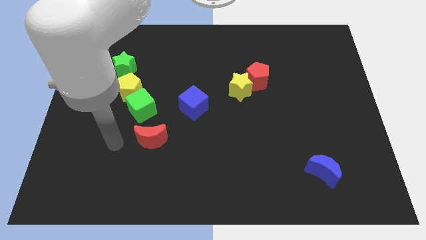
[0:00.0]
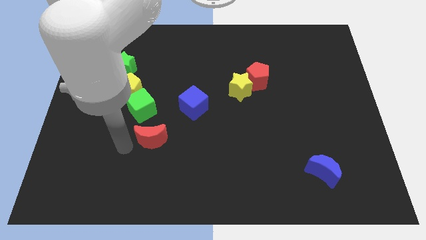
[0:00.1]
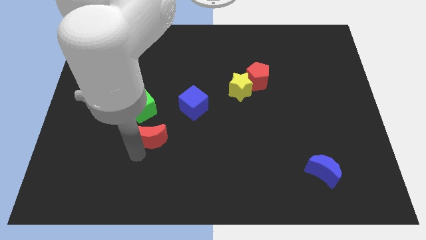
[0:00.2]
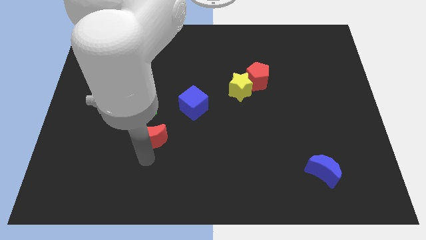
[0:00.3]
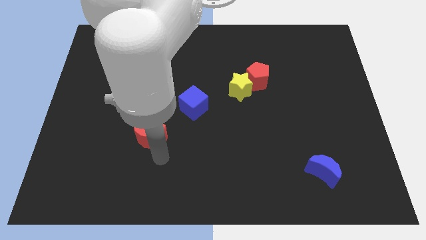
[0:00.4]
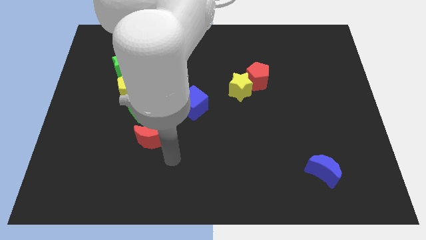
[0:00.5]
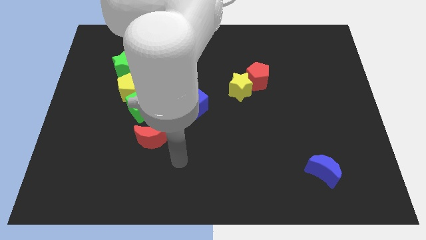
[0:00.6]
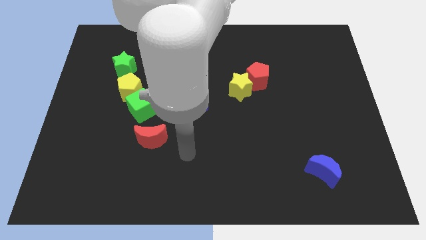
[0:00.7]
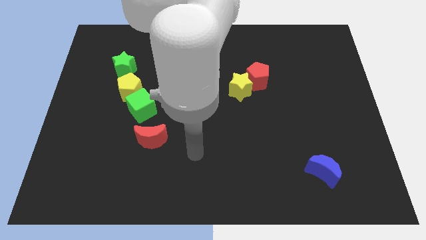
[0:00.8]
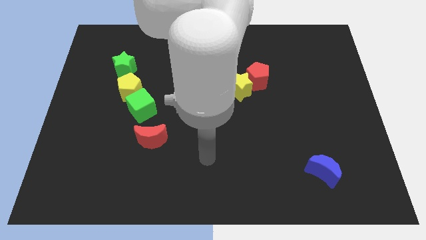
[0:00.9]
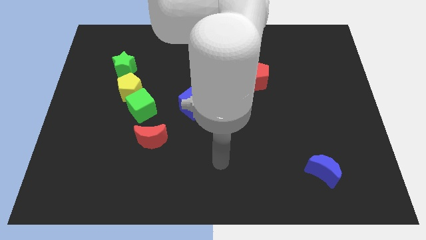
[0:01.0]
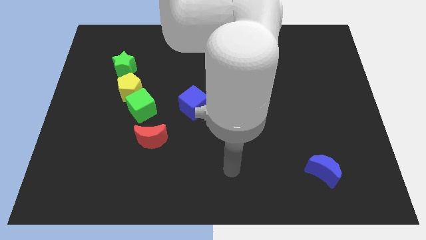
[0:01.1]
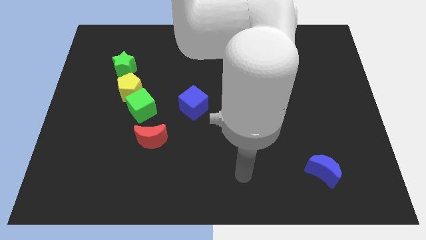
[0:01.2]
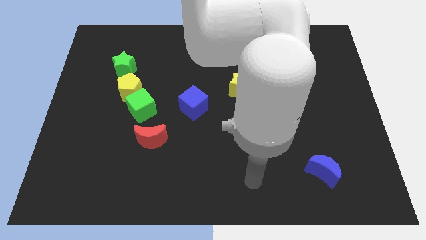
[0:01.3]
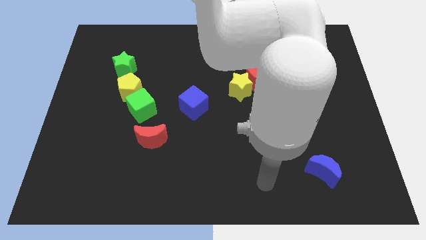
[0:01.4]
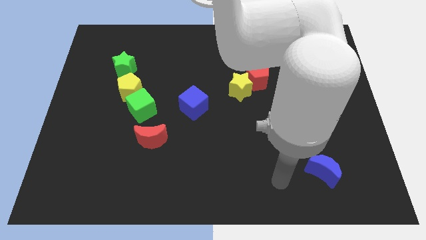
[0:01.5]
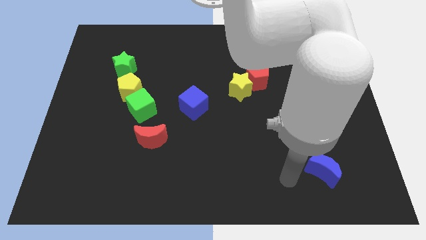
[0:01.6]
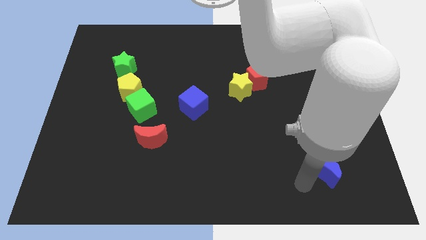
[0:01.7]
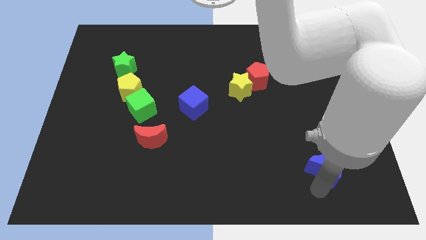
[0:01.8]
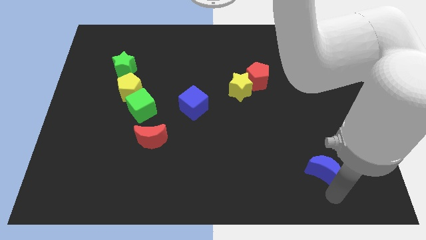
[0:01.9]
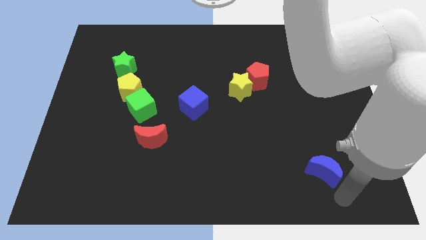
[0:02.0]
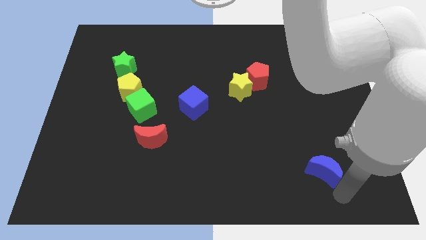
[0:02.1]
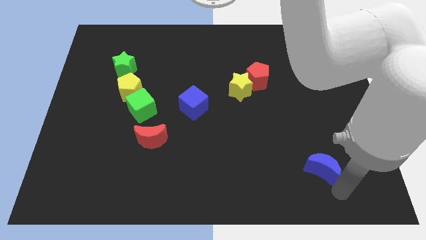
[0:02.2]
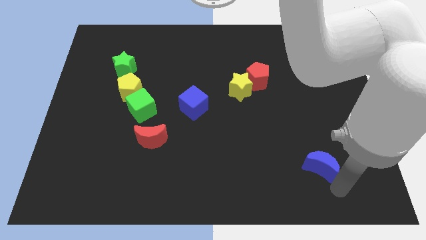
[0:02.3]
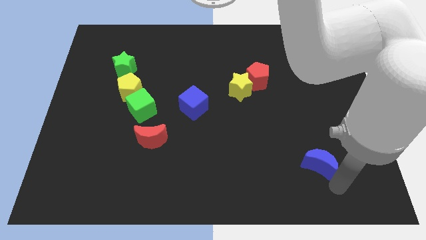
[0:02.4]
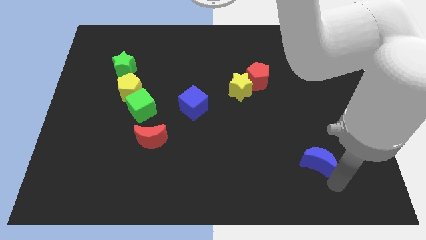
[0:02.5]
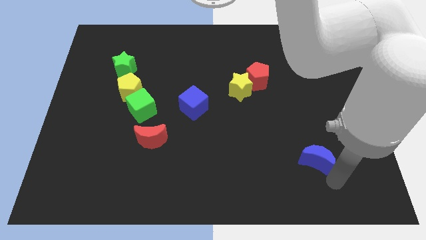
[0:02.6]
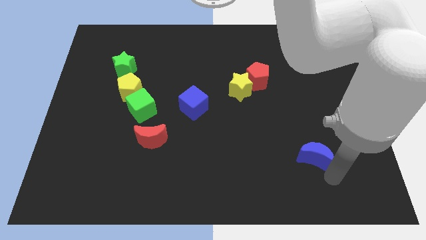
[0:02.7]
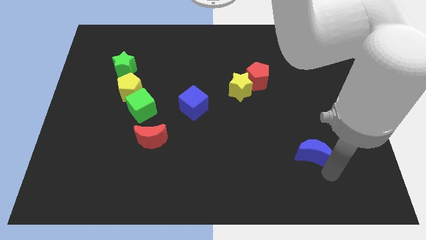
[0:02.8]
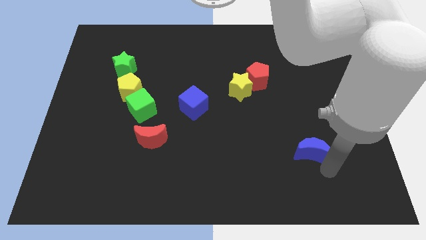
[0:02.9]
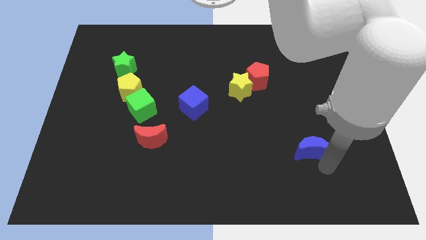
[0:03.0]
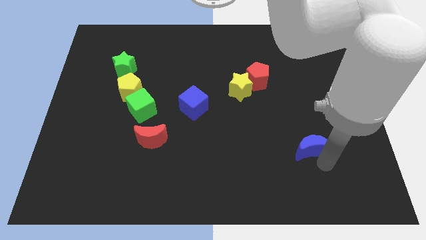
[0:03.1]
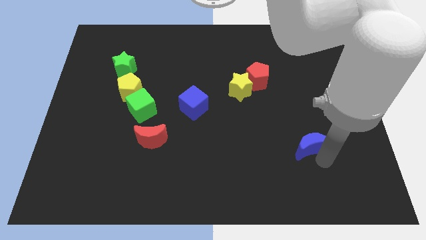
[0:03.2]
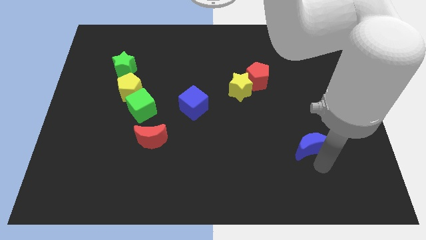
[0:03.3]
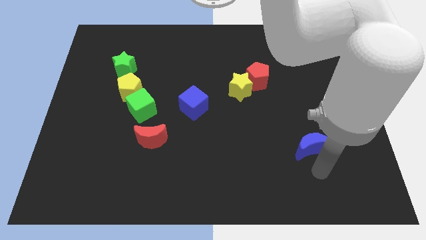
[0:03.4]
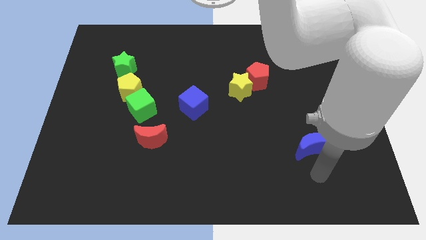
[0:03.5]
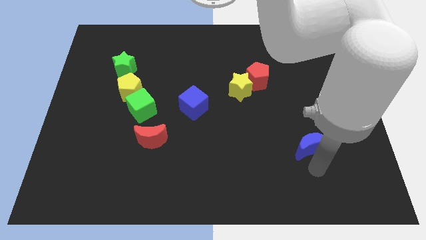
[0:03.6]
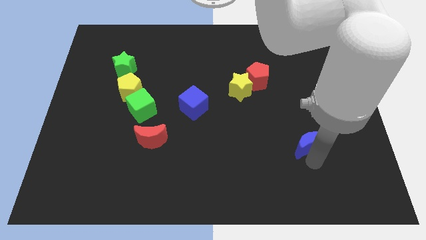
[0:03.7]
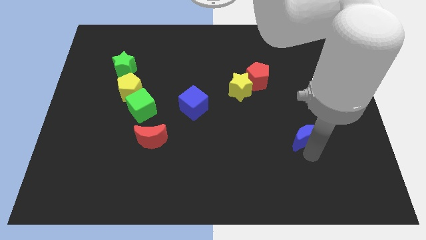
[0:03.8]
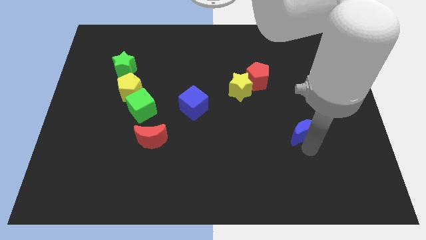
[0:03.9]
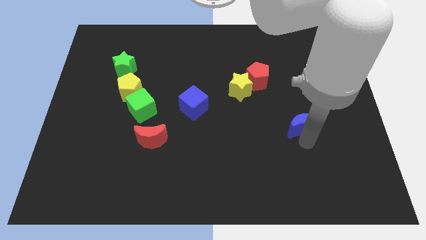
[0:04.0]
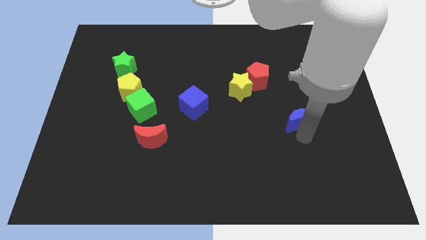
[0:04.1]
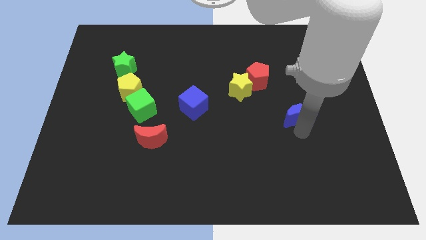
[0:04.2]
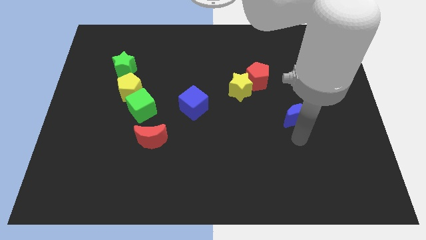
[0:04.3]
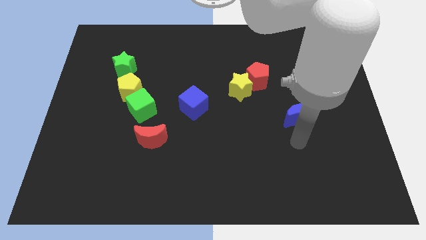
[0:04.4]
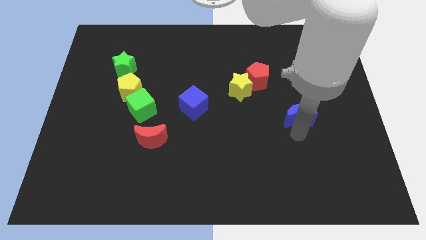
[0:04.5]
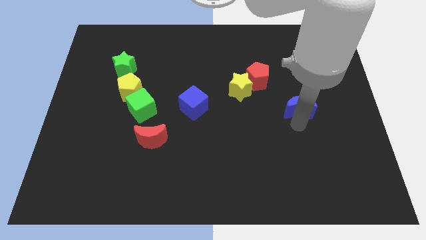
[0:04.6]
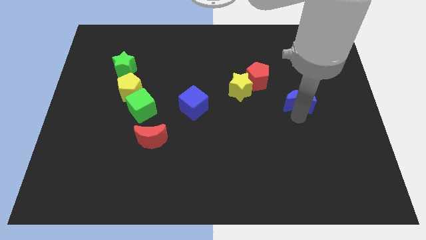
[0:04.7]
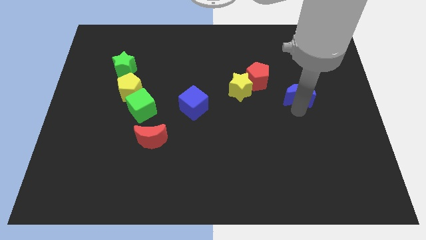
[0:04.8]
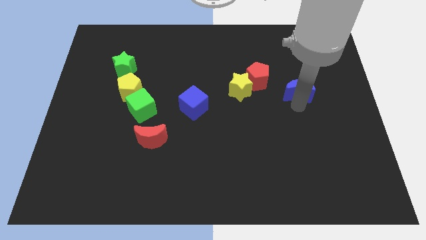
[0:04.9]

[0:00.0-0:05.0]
move the blue moon upwards

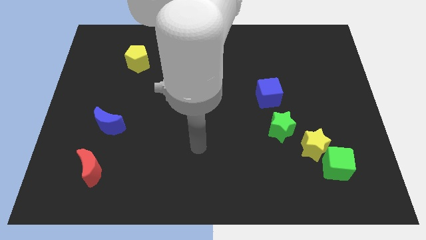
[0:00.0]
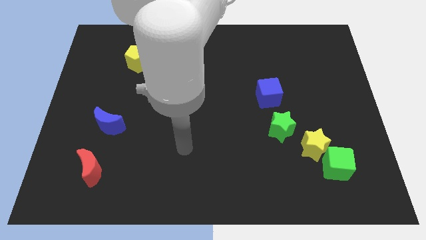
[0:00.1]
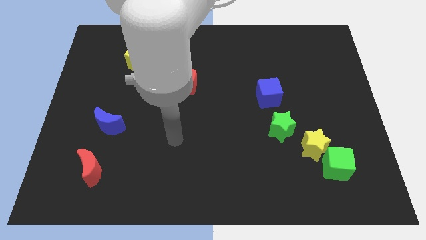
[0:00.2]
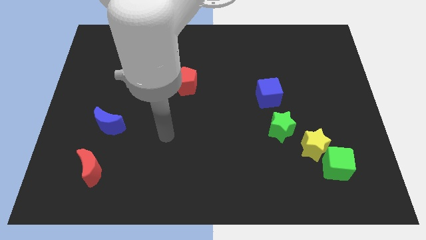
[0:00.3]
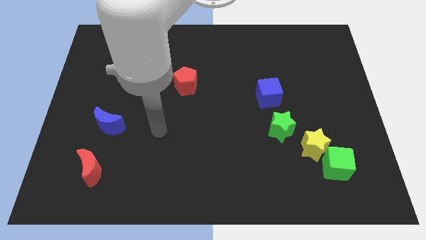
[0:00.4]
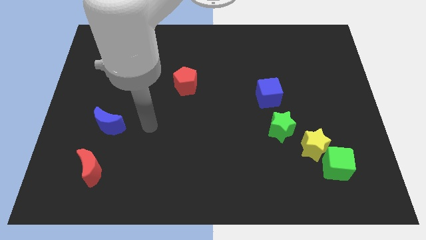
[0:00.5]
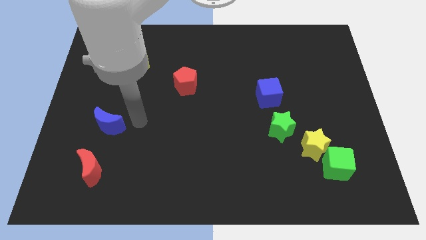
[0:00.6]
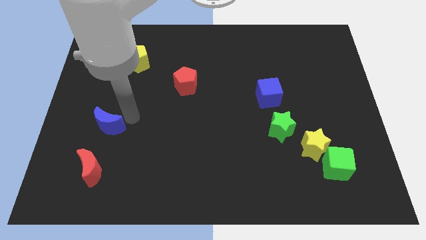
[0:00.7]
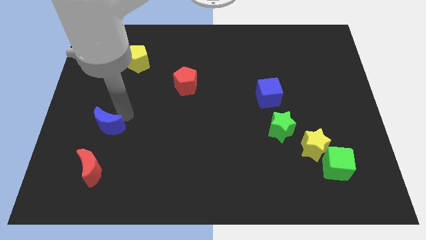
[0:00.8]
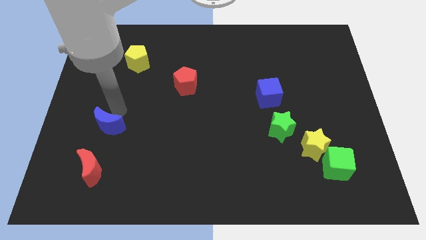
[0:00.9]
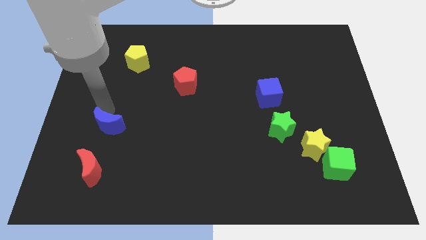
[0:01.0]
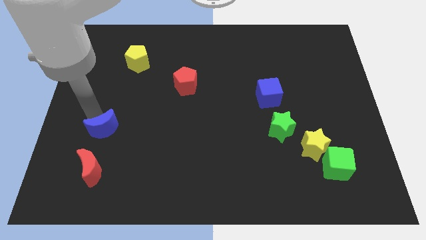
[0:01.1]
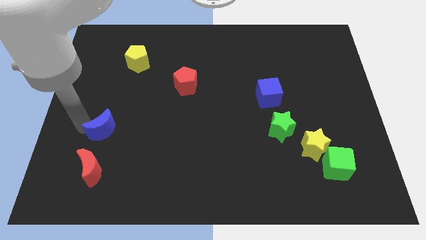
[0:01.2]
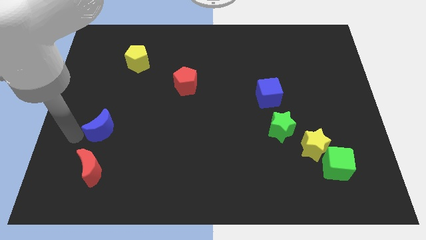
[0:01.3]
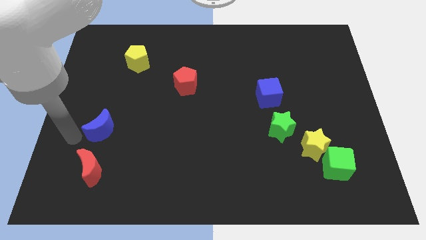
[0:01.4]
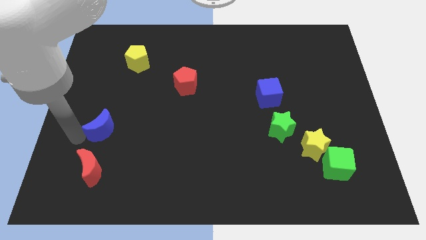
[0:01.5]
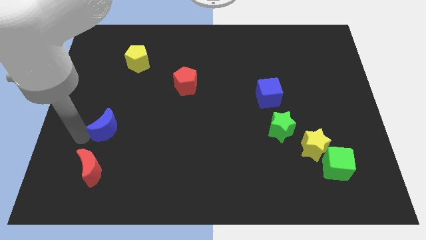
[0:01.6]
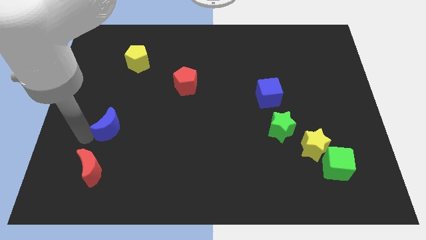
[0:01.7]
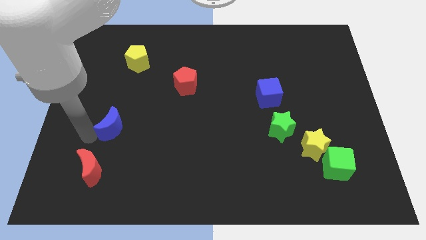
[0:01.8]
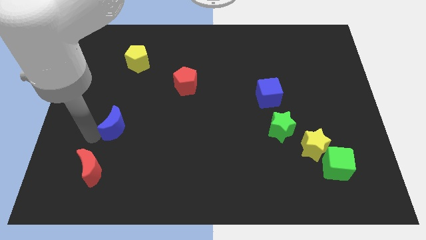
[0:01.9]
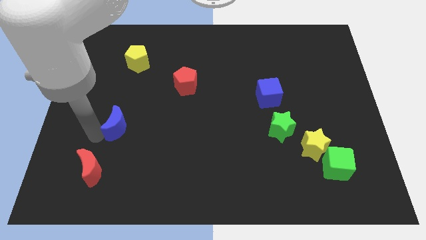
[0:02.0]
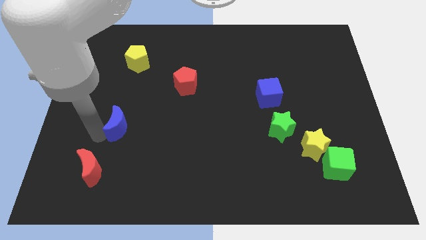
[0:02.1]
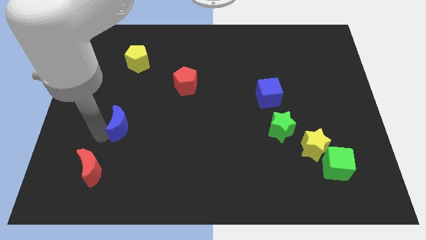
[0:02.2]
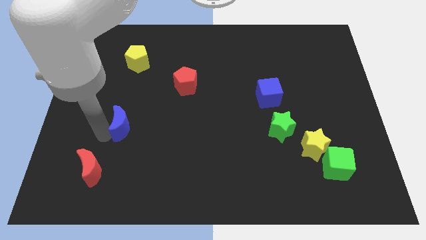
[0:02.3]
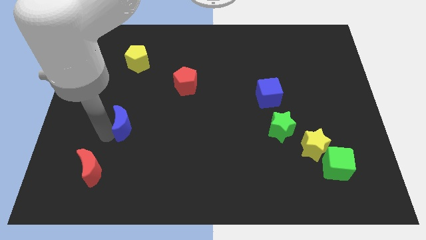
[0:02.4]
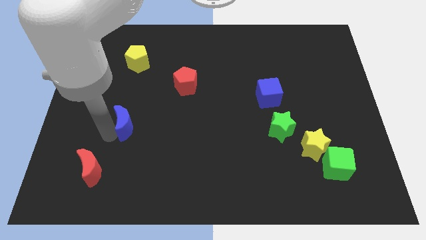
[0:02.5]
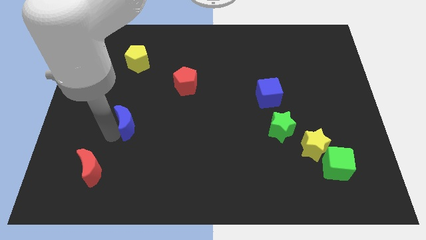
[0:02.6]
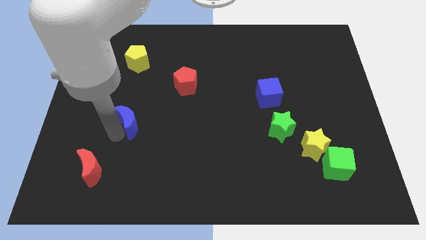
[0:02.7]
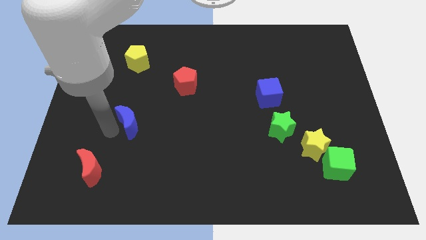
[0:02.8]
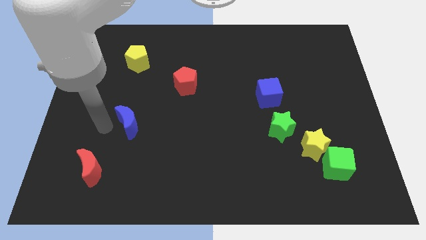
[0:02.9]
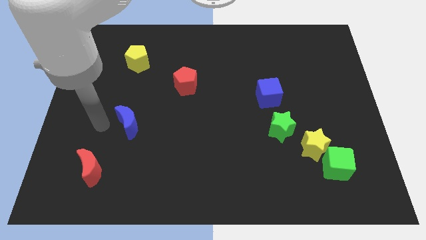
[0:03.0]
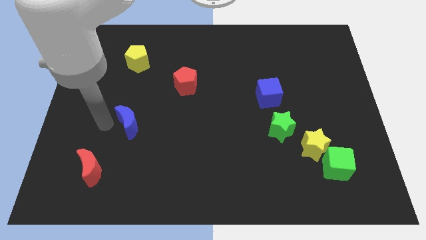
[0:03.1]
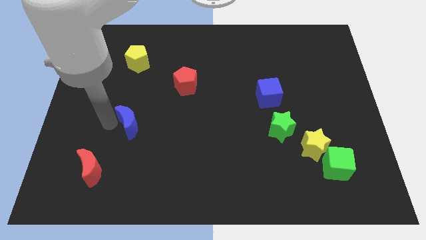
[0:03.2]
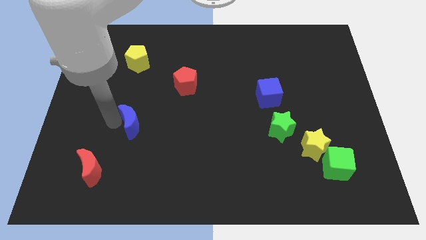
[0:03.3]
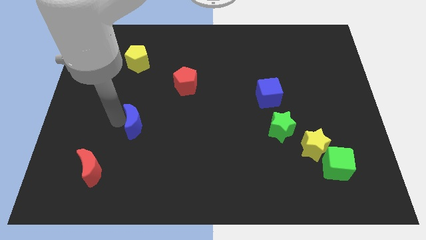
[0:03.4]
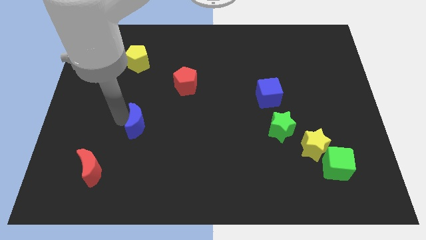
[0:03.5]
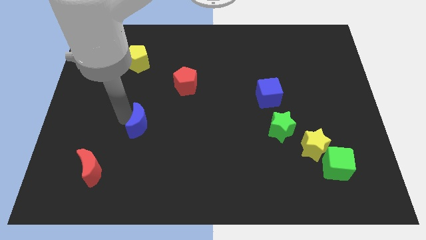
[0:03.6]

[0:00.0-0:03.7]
push the blue moon to the right a bit
